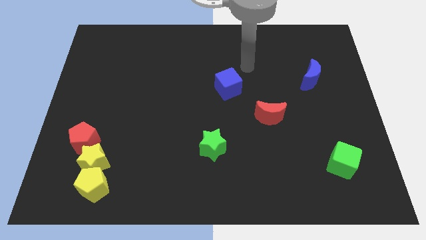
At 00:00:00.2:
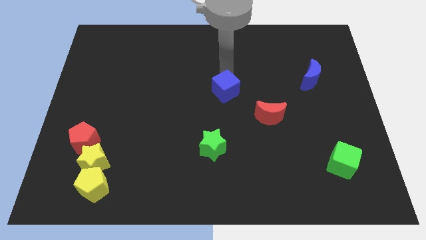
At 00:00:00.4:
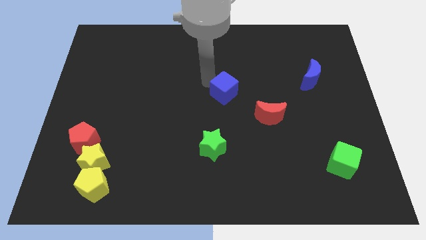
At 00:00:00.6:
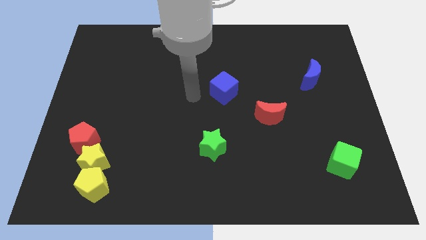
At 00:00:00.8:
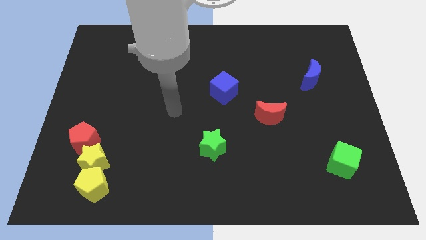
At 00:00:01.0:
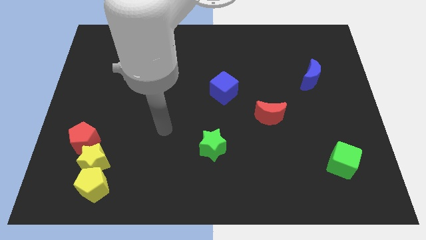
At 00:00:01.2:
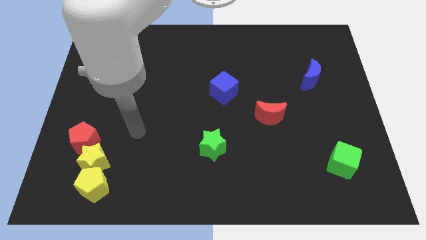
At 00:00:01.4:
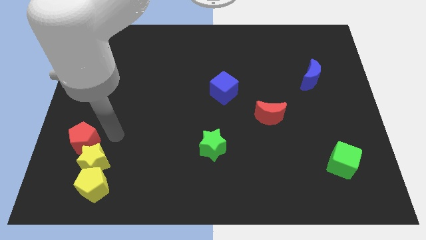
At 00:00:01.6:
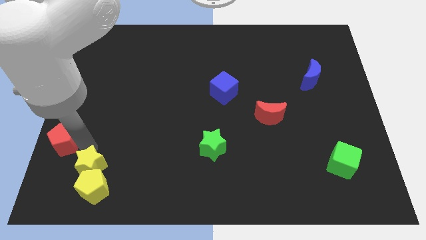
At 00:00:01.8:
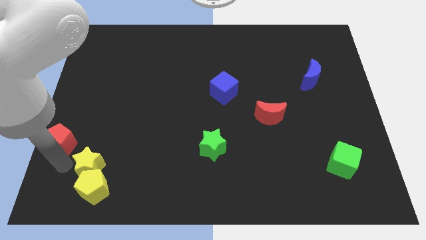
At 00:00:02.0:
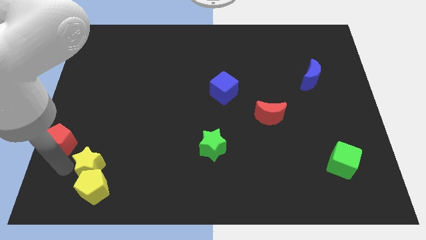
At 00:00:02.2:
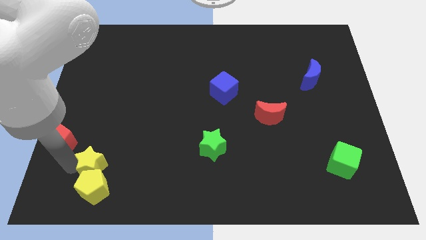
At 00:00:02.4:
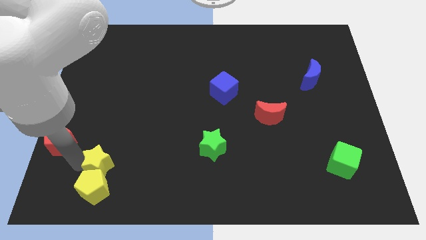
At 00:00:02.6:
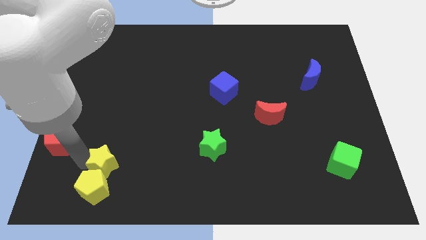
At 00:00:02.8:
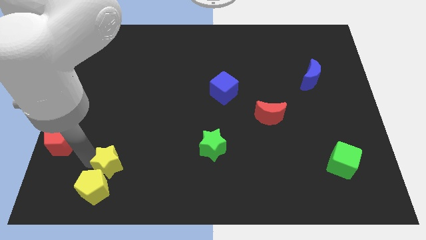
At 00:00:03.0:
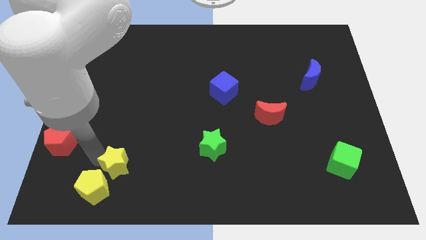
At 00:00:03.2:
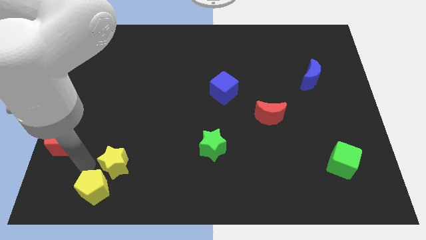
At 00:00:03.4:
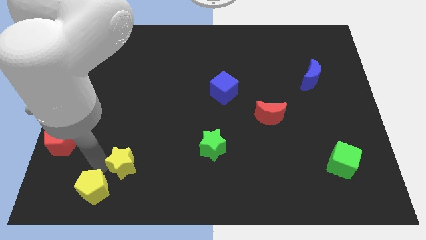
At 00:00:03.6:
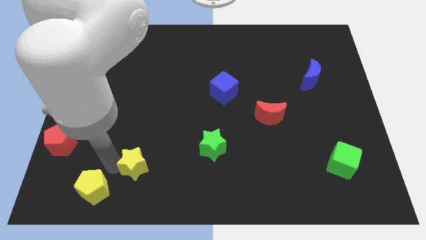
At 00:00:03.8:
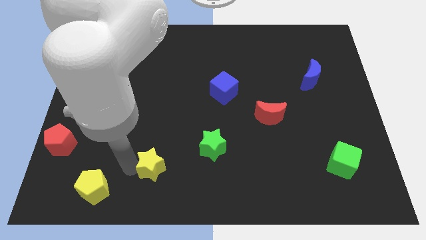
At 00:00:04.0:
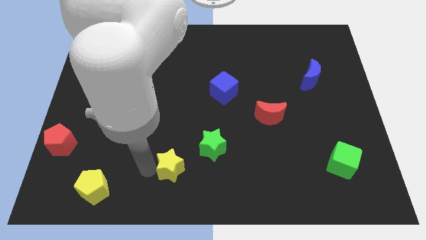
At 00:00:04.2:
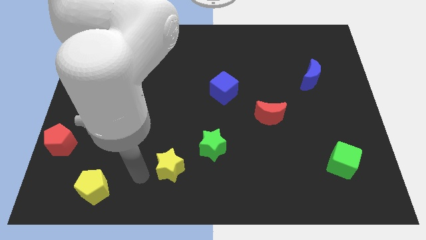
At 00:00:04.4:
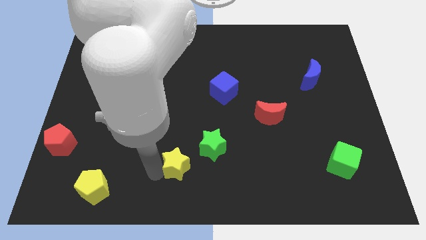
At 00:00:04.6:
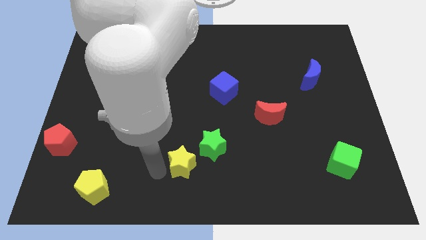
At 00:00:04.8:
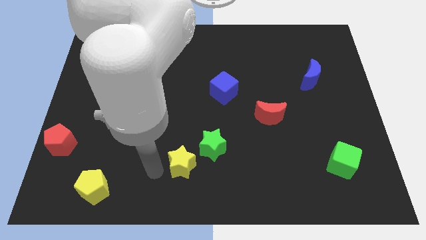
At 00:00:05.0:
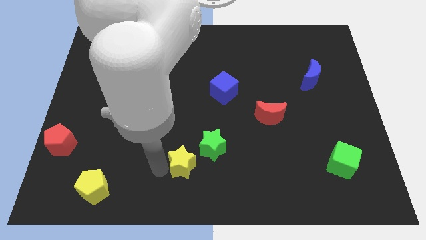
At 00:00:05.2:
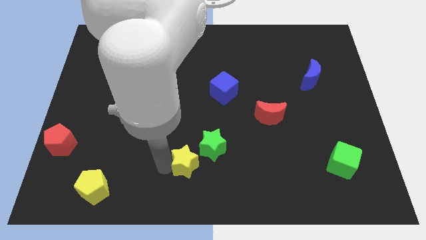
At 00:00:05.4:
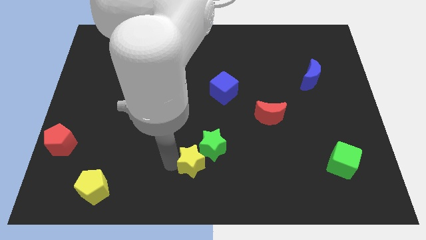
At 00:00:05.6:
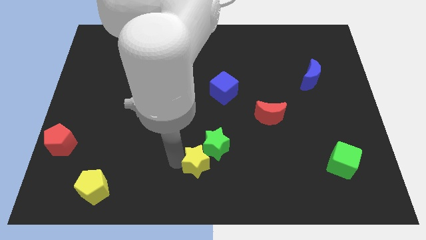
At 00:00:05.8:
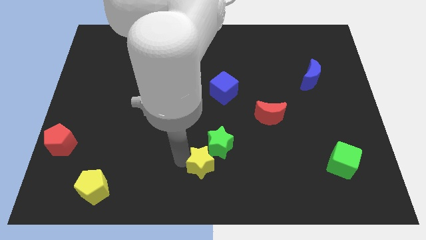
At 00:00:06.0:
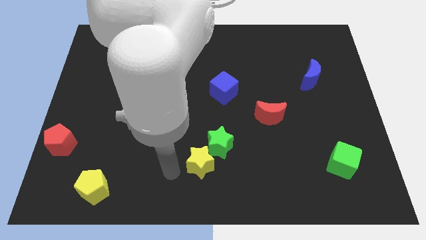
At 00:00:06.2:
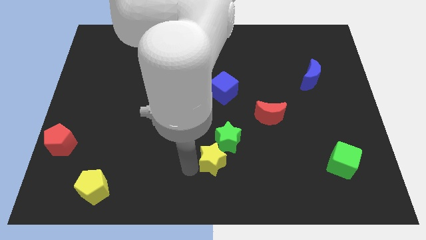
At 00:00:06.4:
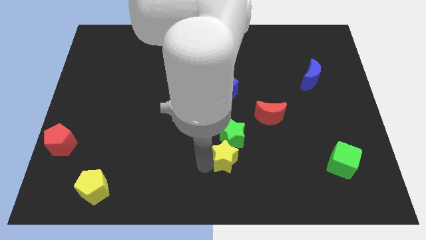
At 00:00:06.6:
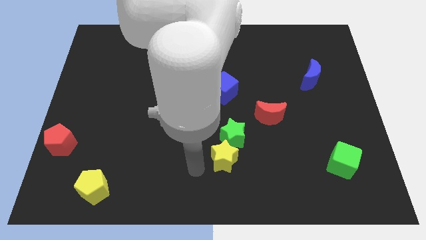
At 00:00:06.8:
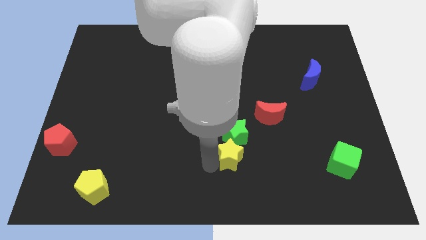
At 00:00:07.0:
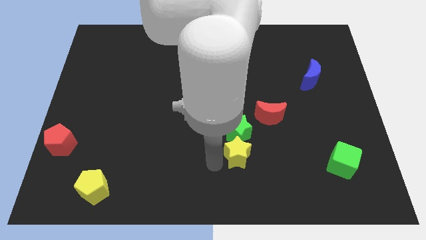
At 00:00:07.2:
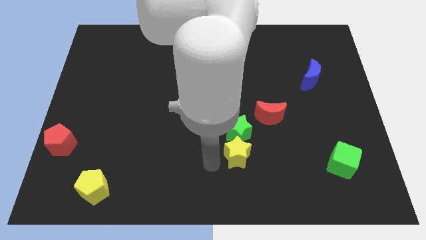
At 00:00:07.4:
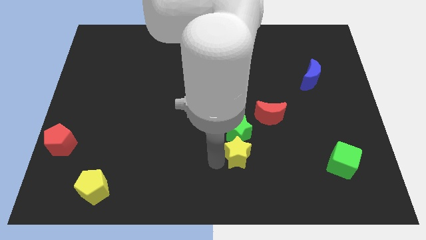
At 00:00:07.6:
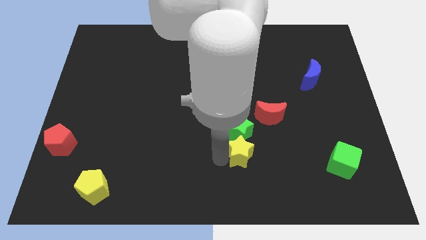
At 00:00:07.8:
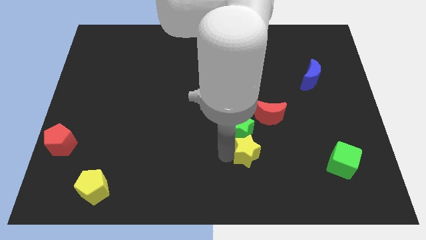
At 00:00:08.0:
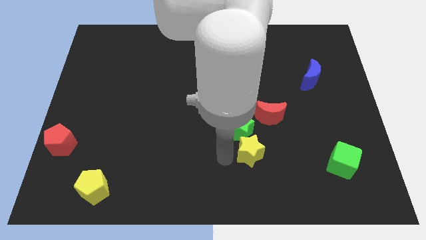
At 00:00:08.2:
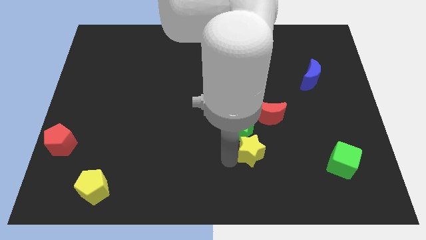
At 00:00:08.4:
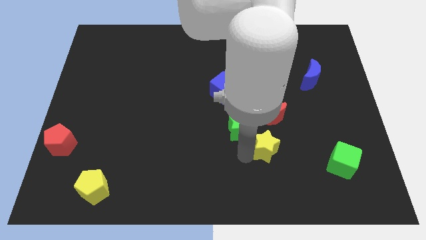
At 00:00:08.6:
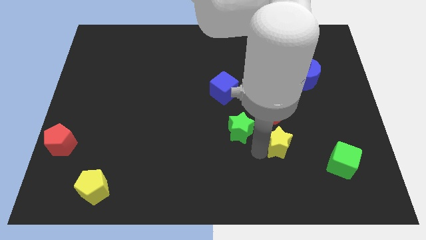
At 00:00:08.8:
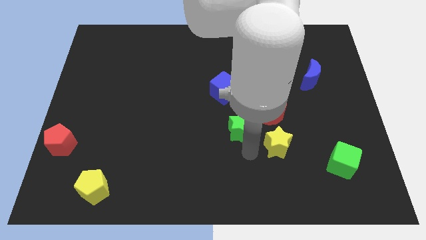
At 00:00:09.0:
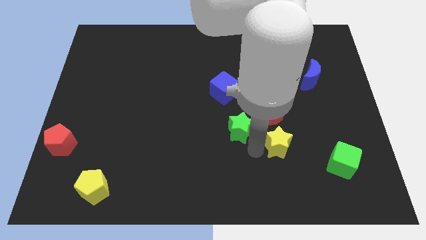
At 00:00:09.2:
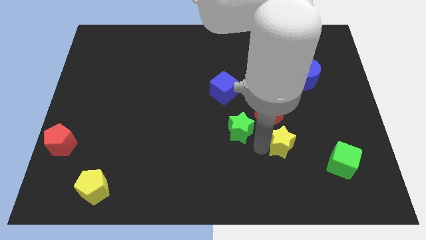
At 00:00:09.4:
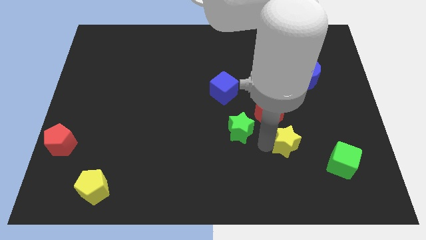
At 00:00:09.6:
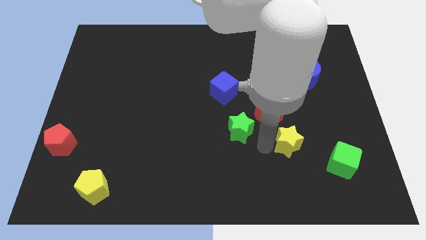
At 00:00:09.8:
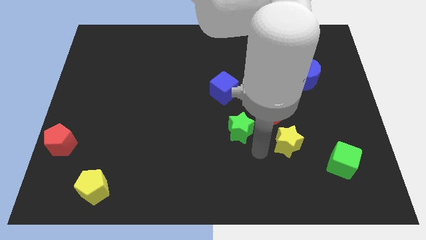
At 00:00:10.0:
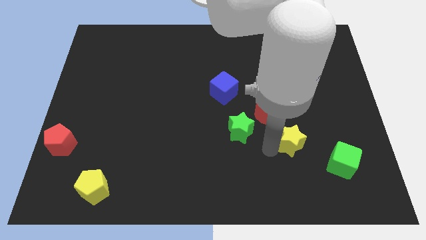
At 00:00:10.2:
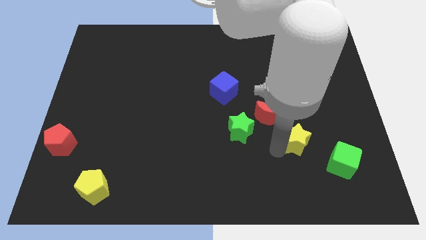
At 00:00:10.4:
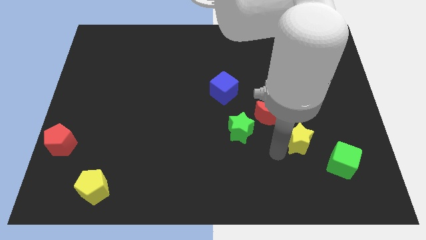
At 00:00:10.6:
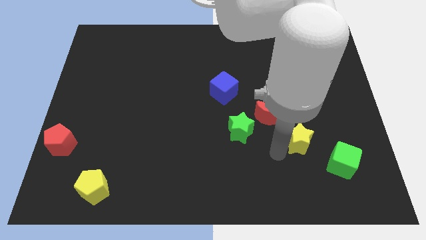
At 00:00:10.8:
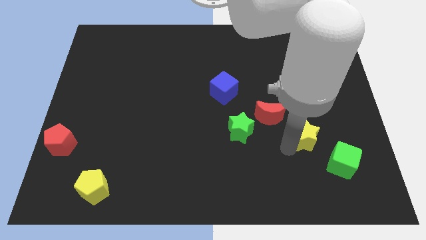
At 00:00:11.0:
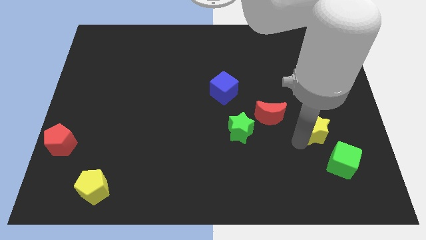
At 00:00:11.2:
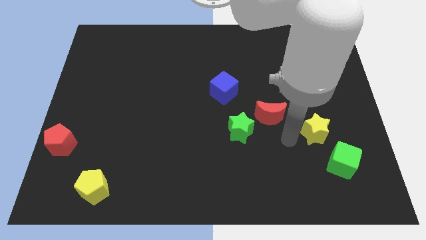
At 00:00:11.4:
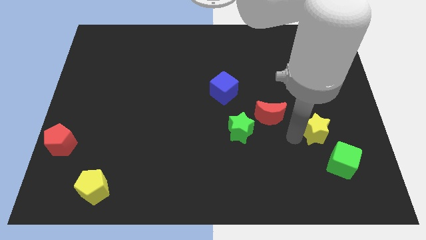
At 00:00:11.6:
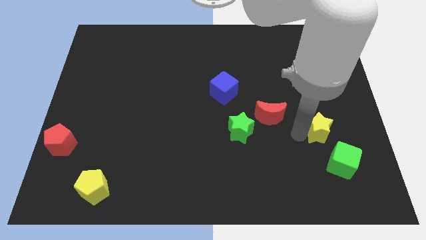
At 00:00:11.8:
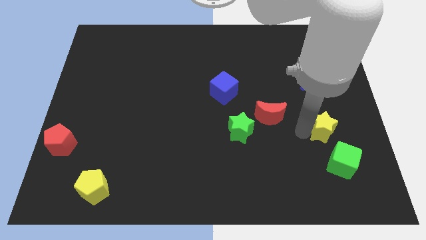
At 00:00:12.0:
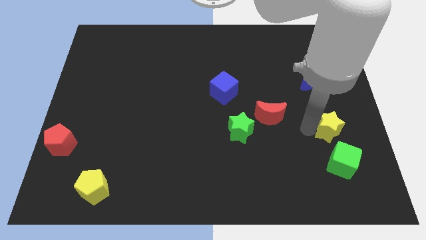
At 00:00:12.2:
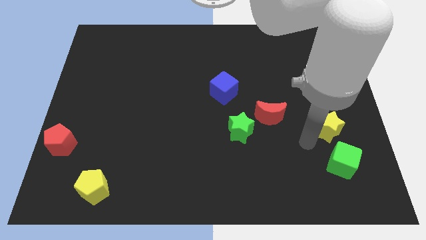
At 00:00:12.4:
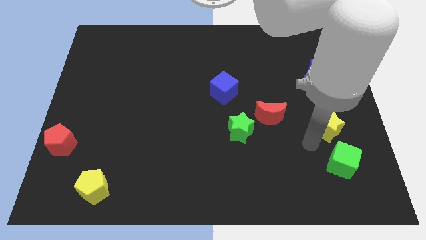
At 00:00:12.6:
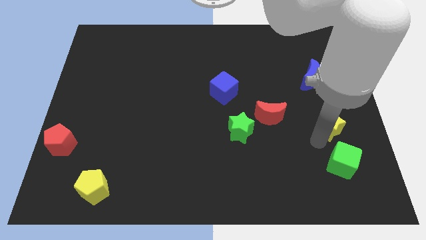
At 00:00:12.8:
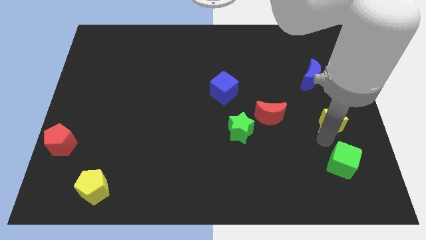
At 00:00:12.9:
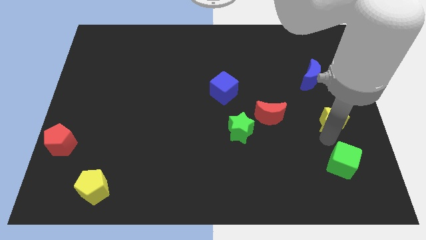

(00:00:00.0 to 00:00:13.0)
push the yellow star to the right side of the board
